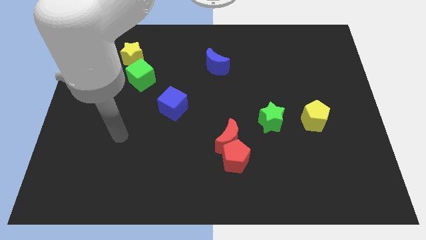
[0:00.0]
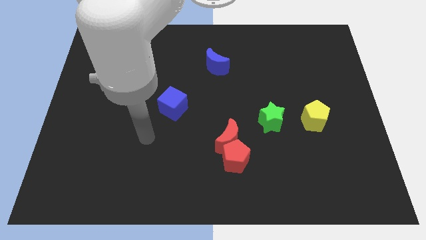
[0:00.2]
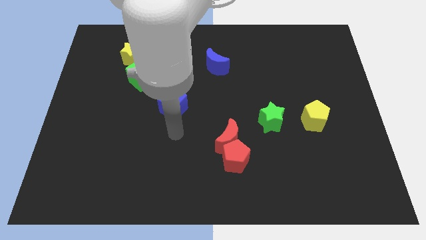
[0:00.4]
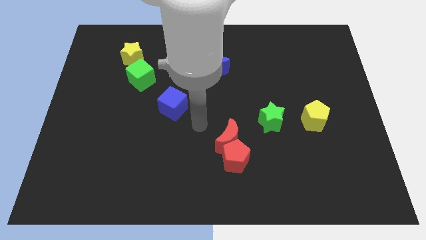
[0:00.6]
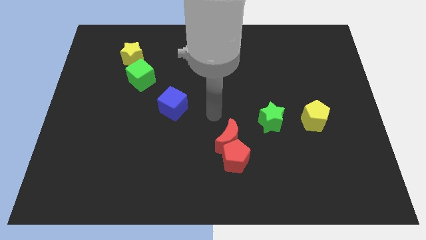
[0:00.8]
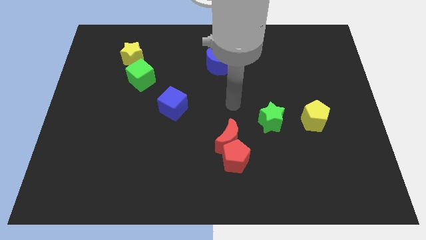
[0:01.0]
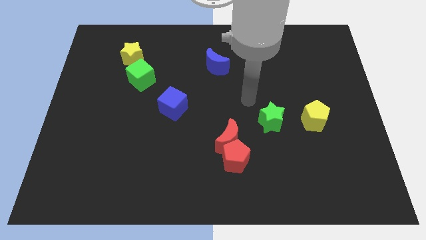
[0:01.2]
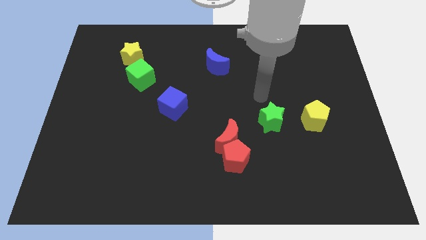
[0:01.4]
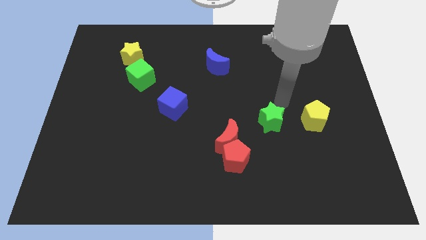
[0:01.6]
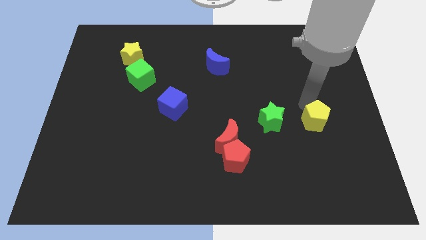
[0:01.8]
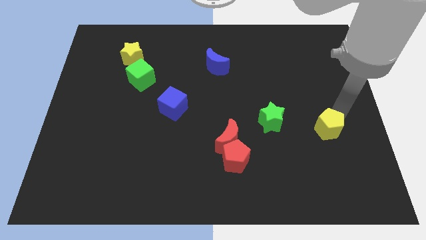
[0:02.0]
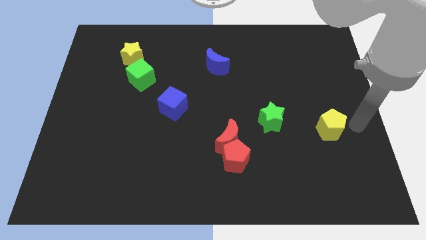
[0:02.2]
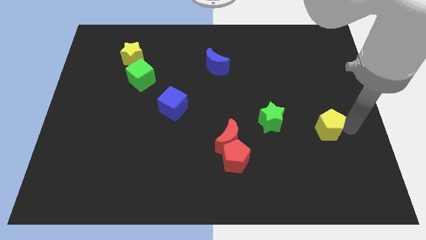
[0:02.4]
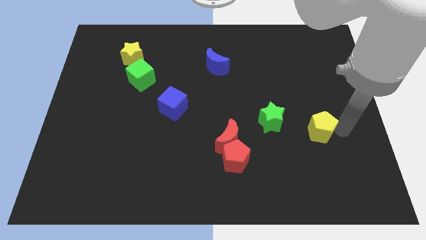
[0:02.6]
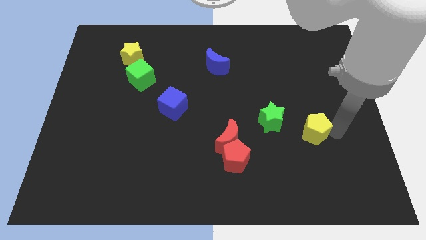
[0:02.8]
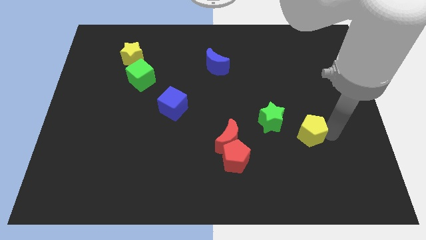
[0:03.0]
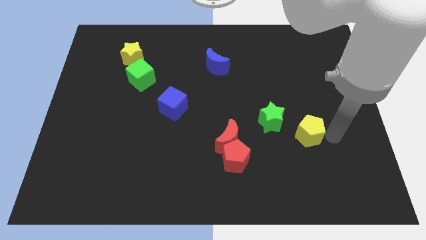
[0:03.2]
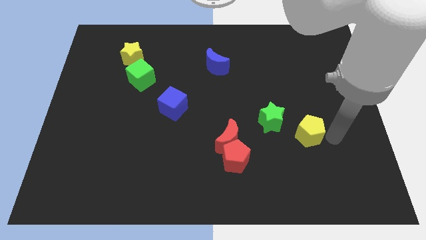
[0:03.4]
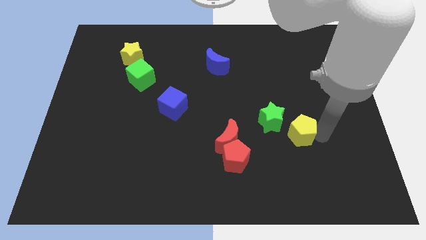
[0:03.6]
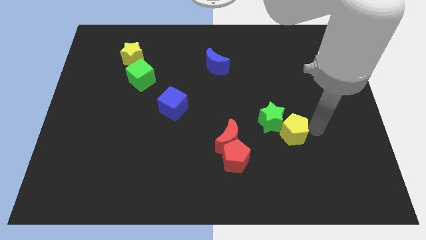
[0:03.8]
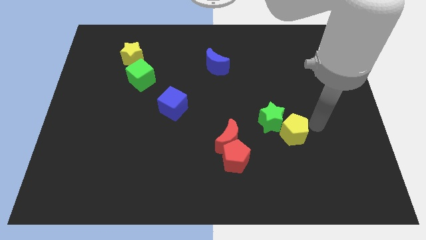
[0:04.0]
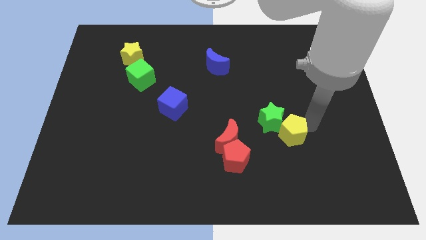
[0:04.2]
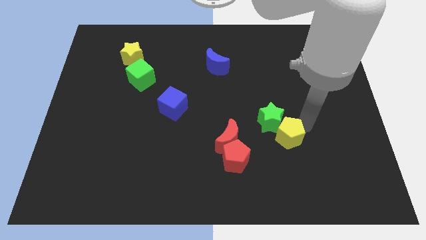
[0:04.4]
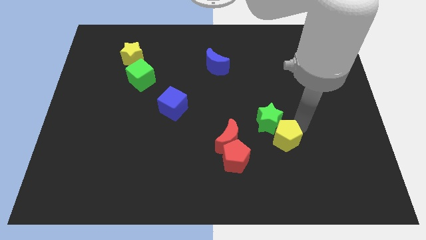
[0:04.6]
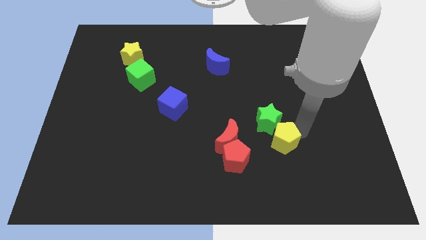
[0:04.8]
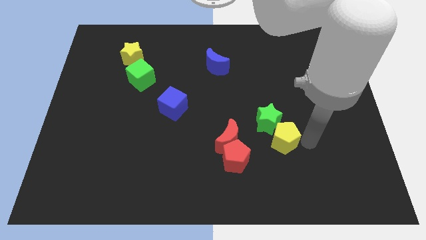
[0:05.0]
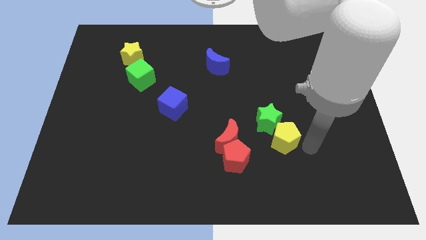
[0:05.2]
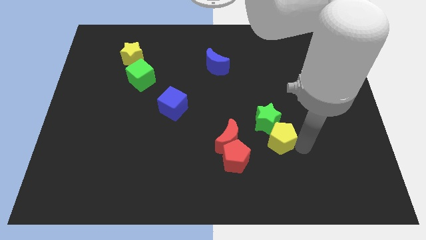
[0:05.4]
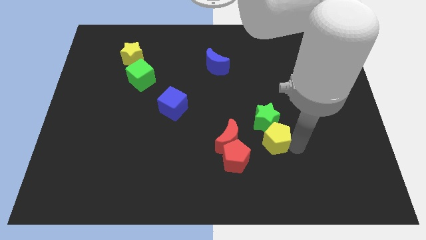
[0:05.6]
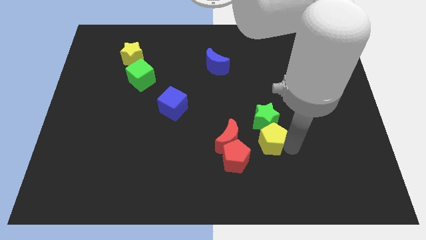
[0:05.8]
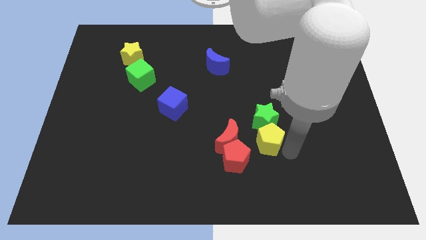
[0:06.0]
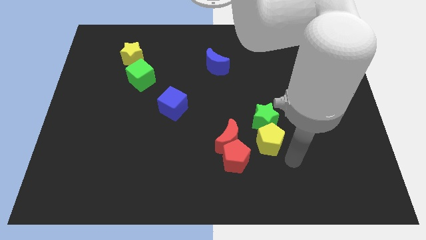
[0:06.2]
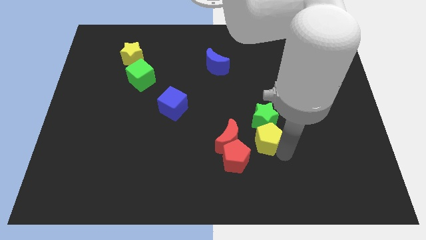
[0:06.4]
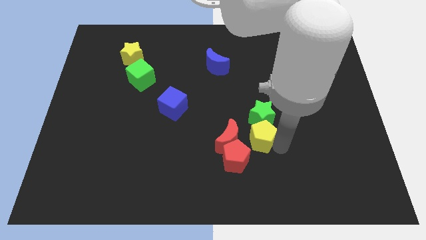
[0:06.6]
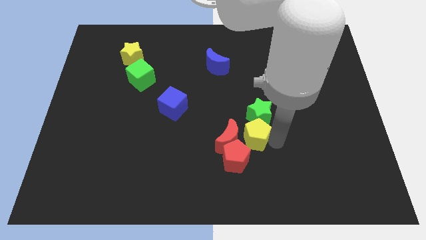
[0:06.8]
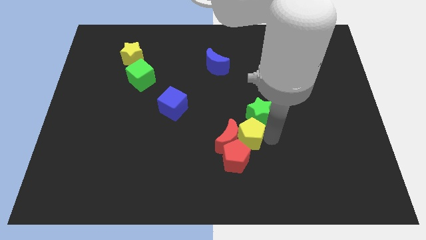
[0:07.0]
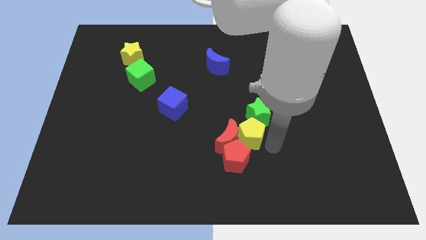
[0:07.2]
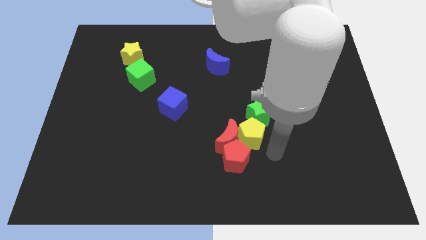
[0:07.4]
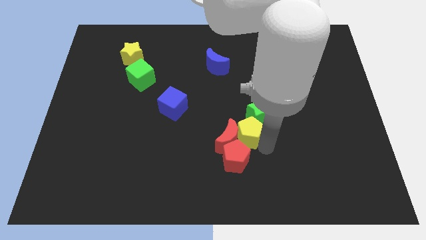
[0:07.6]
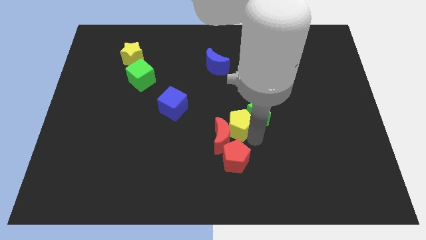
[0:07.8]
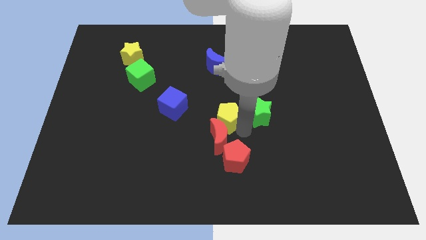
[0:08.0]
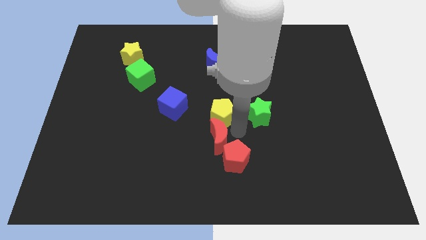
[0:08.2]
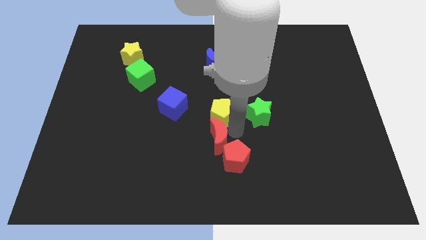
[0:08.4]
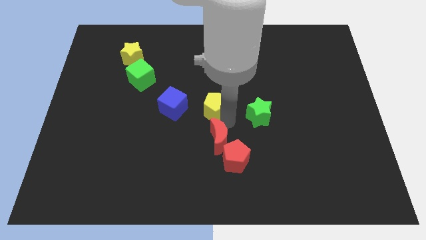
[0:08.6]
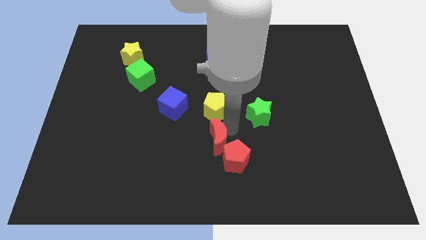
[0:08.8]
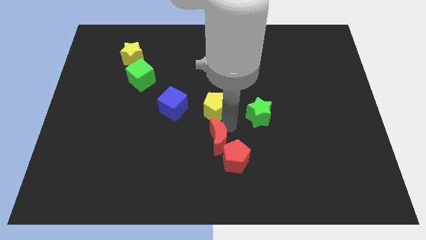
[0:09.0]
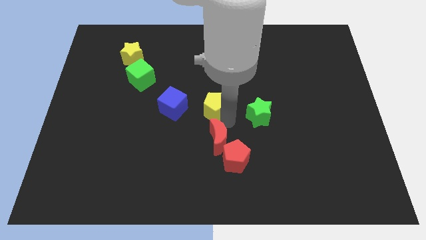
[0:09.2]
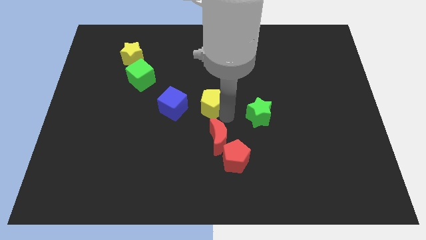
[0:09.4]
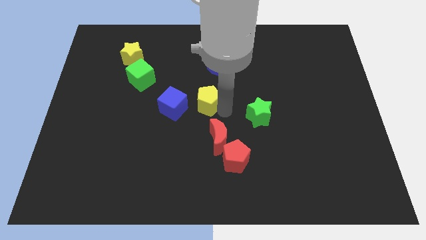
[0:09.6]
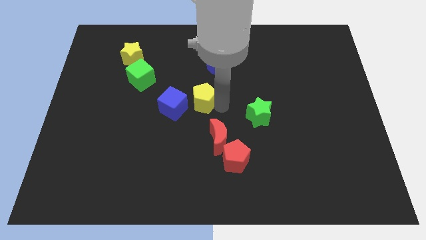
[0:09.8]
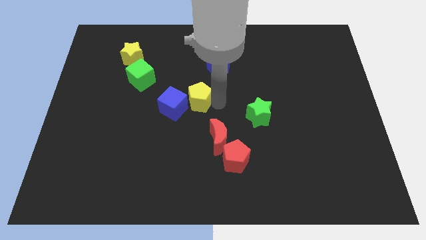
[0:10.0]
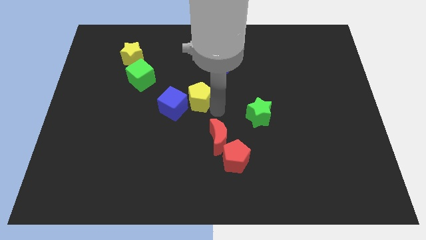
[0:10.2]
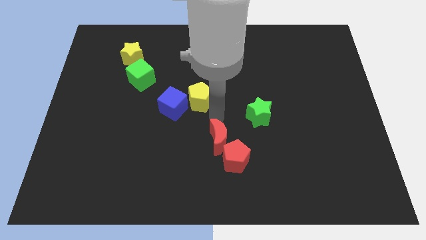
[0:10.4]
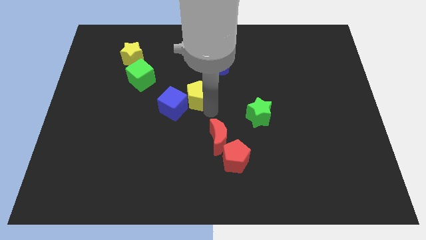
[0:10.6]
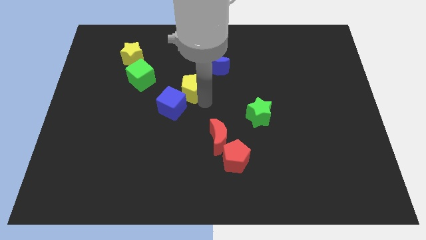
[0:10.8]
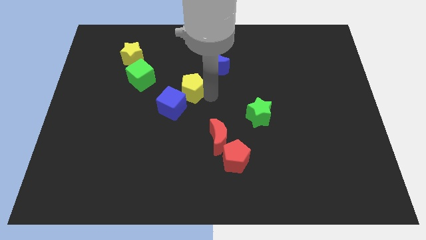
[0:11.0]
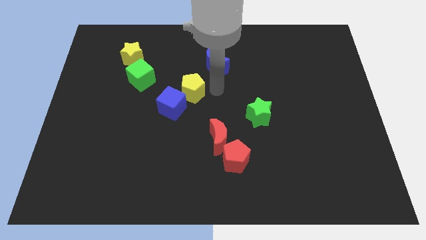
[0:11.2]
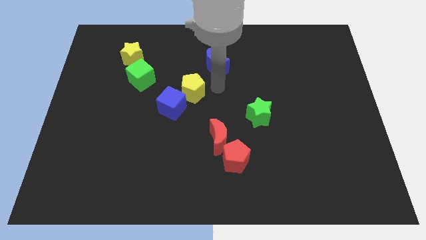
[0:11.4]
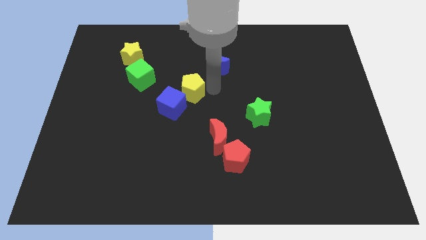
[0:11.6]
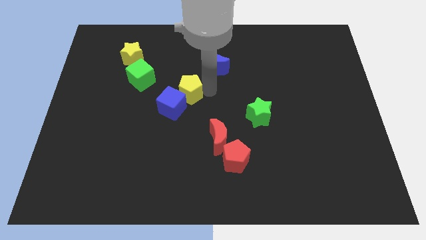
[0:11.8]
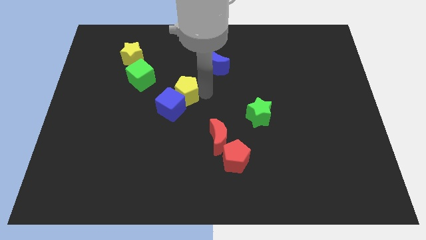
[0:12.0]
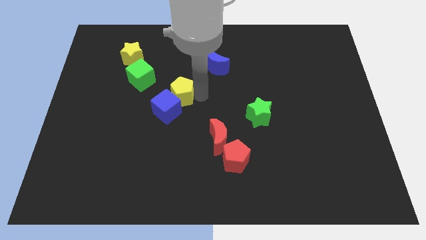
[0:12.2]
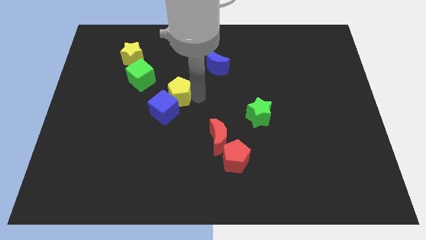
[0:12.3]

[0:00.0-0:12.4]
slide the yellow pentagon to the bottom right of the green cube

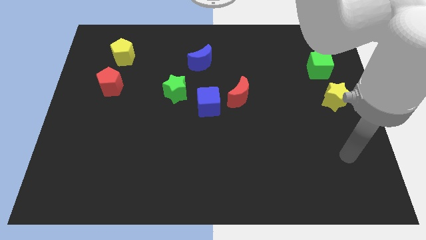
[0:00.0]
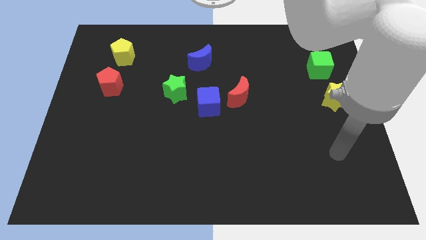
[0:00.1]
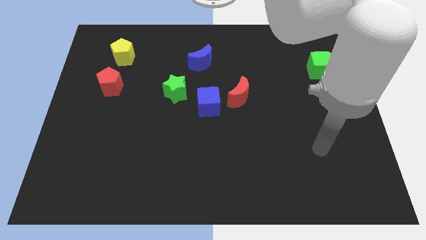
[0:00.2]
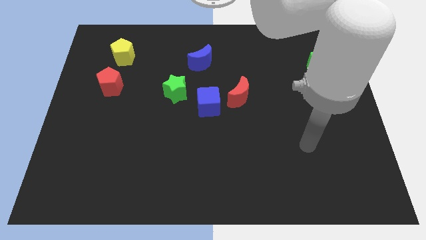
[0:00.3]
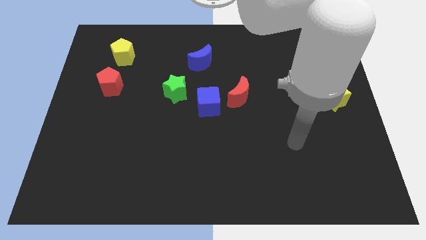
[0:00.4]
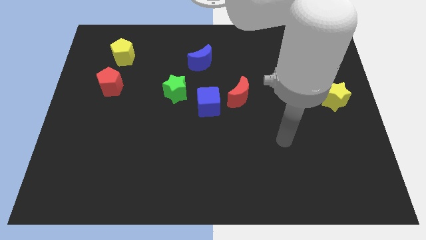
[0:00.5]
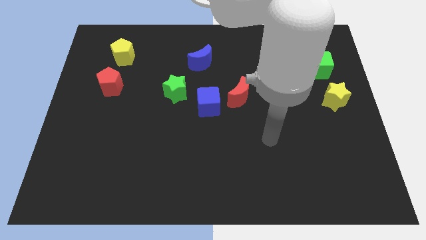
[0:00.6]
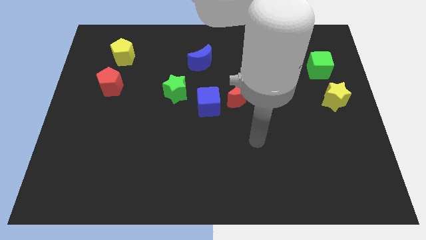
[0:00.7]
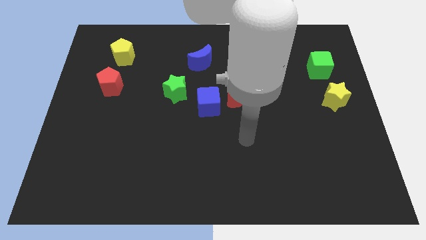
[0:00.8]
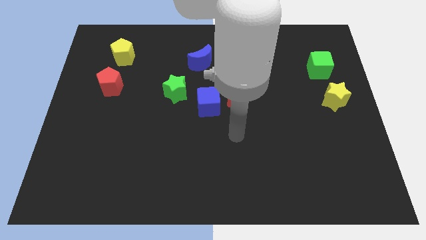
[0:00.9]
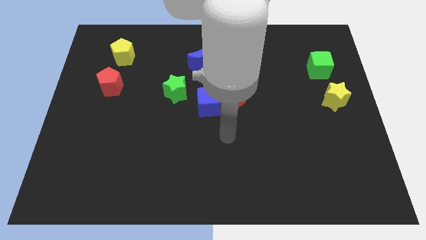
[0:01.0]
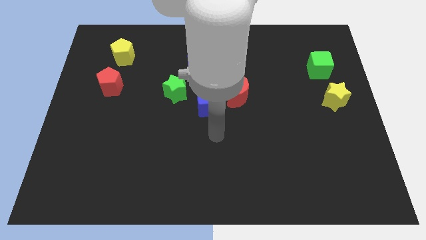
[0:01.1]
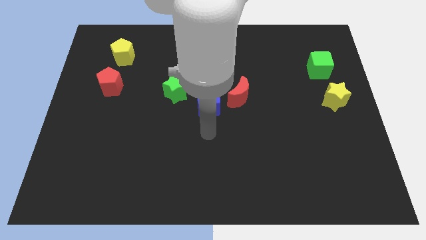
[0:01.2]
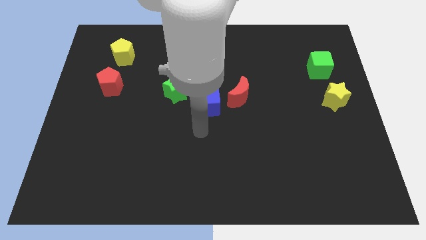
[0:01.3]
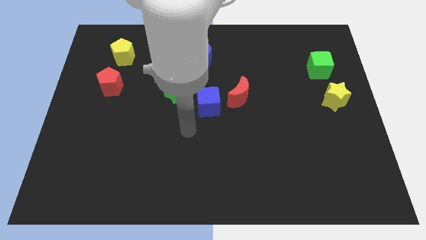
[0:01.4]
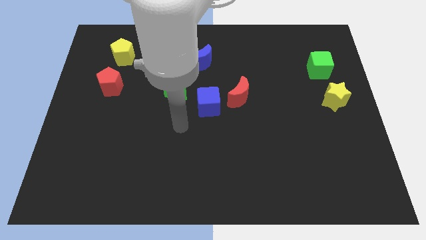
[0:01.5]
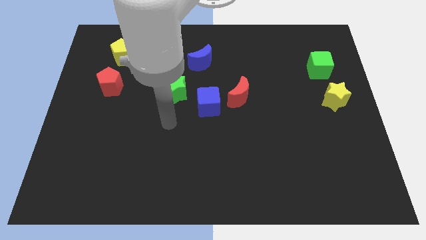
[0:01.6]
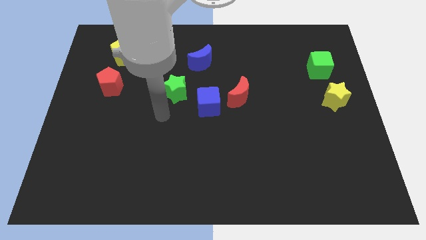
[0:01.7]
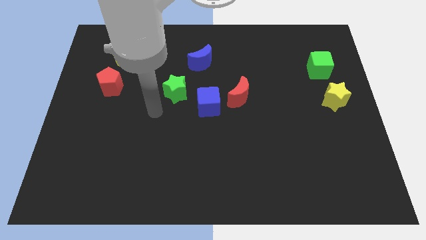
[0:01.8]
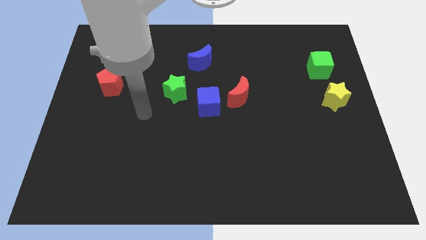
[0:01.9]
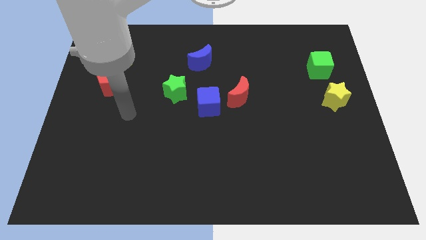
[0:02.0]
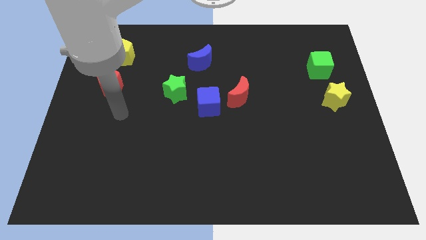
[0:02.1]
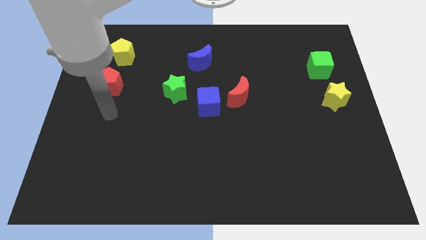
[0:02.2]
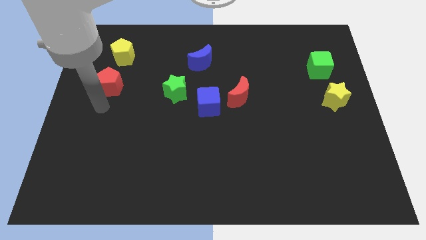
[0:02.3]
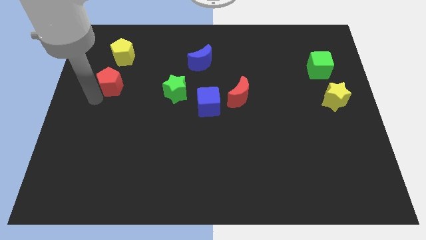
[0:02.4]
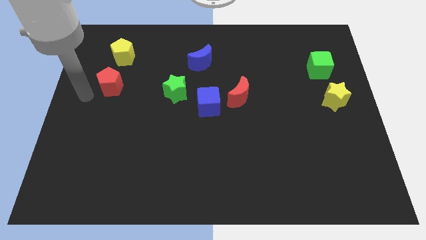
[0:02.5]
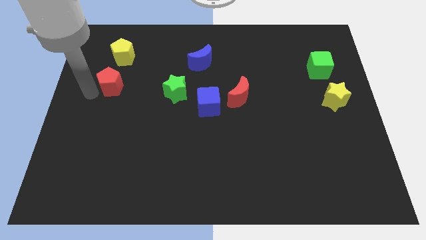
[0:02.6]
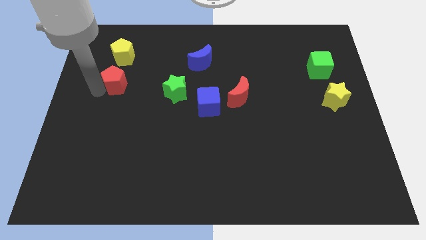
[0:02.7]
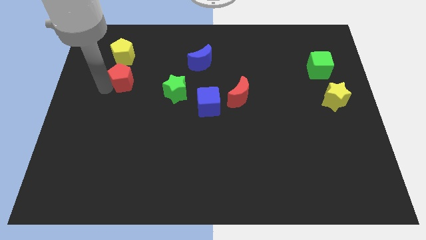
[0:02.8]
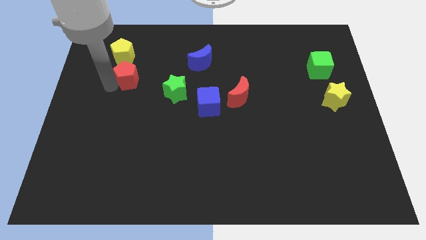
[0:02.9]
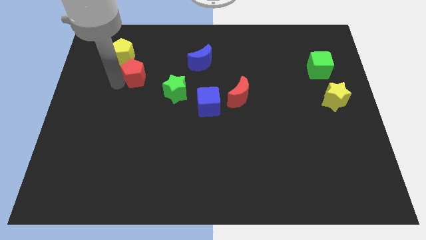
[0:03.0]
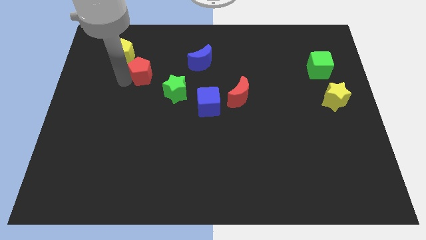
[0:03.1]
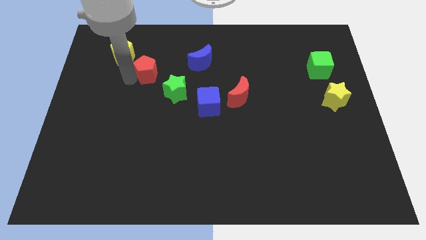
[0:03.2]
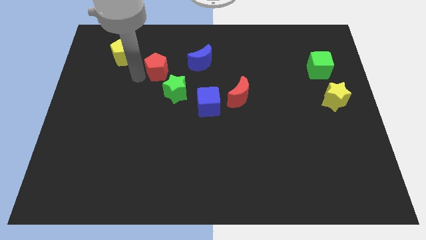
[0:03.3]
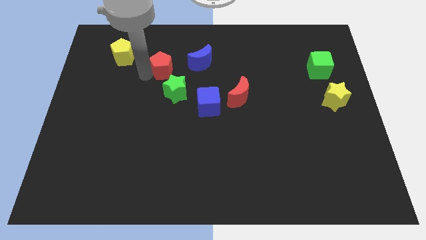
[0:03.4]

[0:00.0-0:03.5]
move the red pentagon to the top side of the green star
